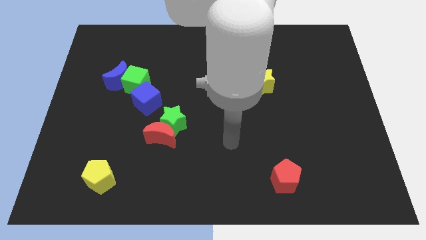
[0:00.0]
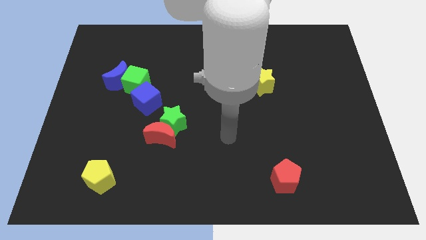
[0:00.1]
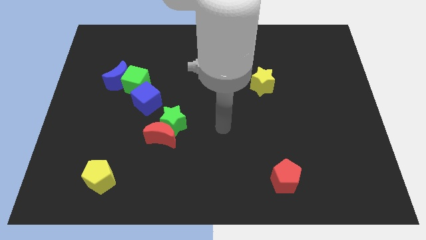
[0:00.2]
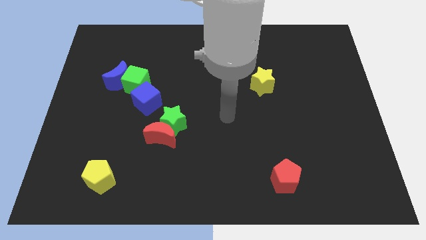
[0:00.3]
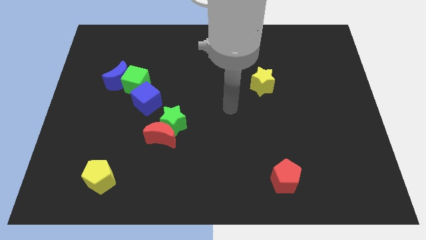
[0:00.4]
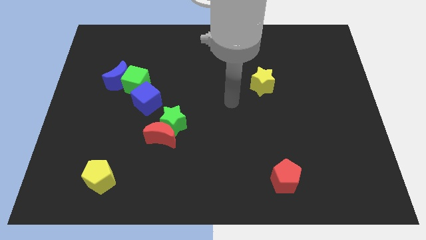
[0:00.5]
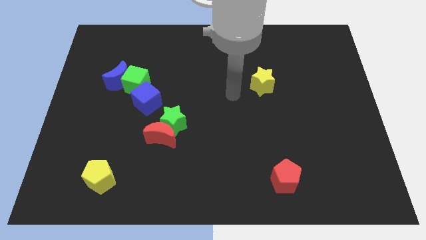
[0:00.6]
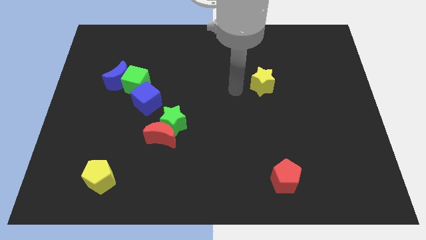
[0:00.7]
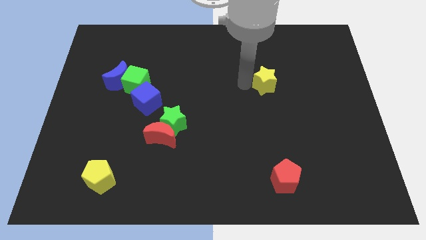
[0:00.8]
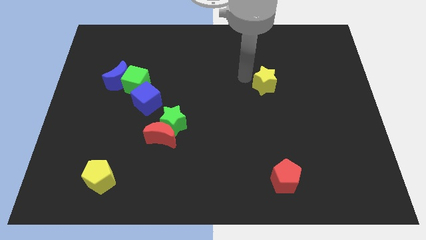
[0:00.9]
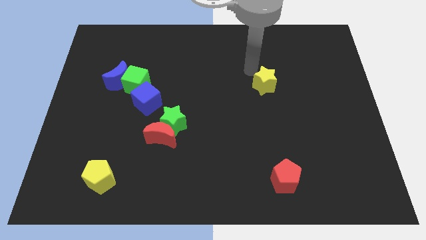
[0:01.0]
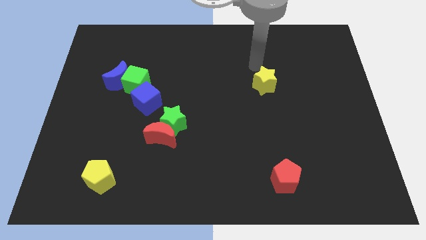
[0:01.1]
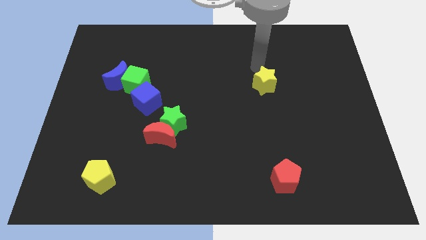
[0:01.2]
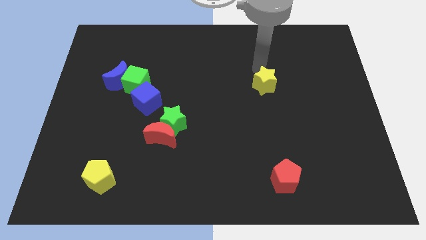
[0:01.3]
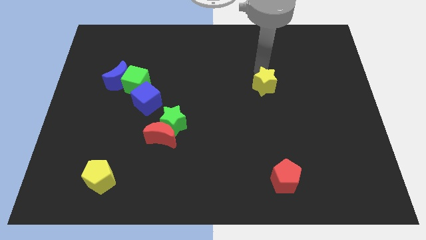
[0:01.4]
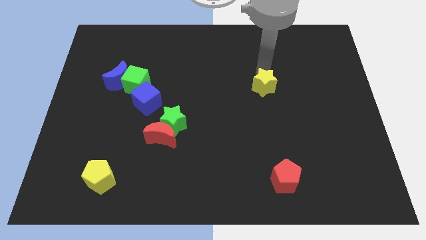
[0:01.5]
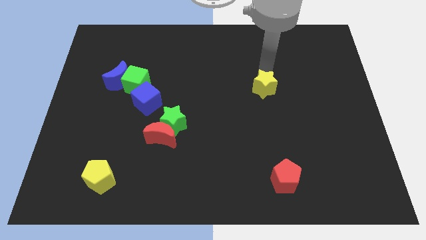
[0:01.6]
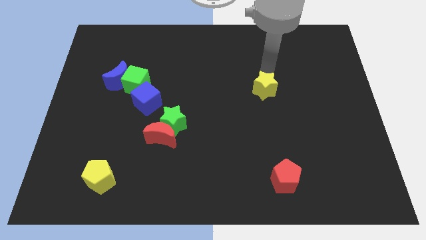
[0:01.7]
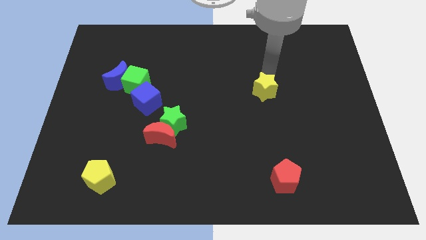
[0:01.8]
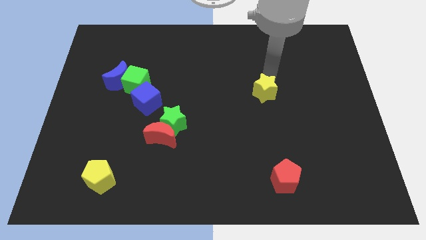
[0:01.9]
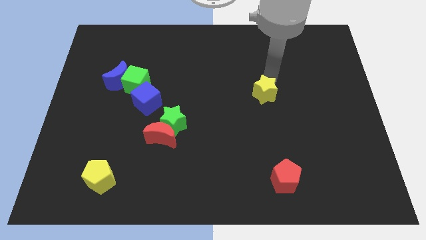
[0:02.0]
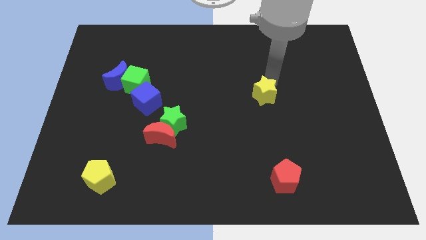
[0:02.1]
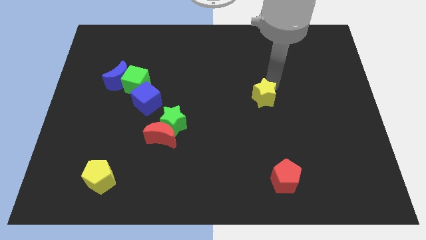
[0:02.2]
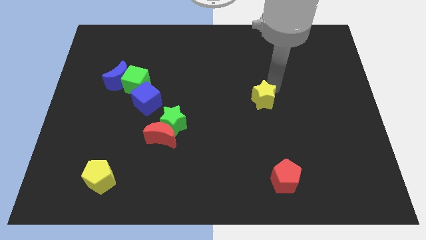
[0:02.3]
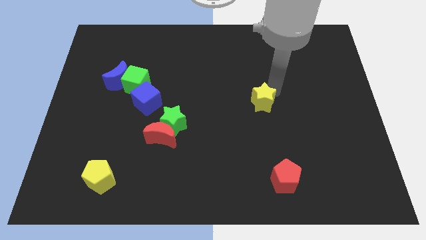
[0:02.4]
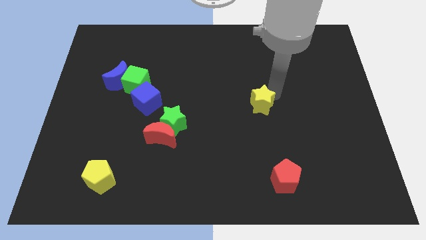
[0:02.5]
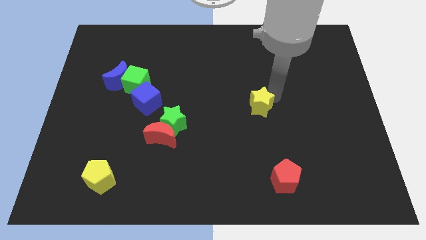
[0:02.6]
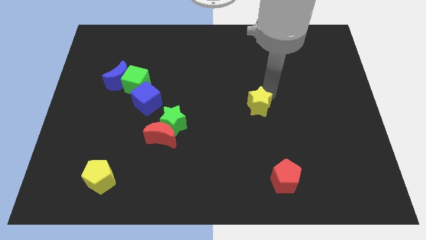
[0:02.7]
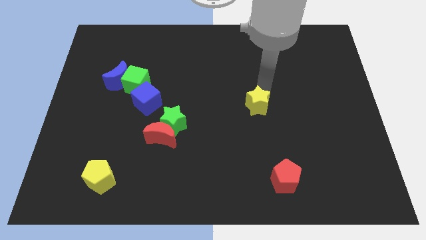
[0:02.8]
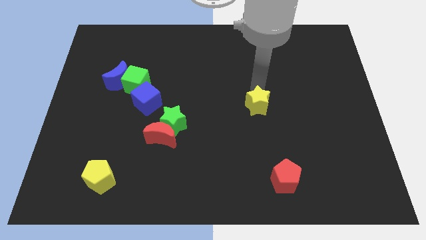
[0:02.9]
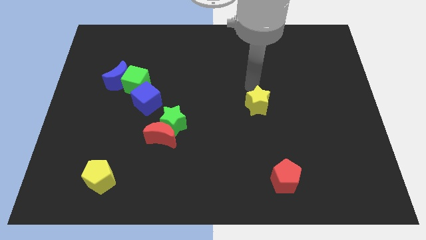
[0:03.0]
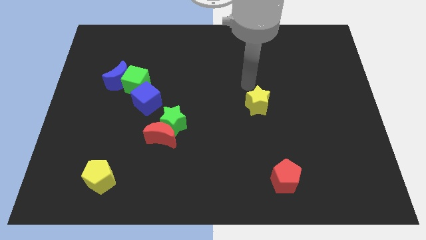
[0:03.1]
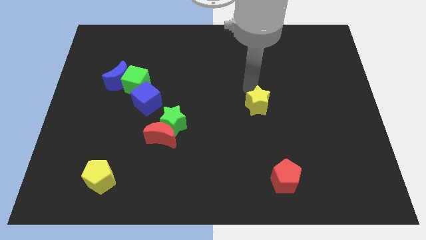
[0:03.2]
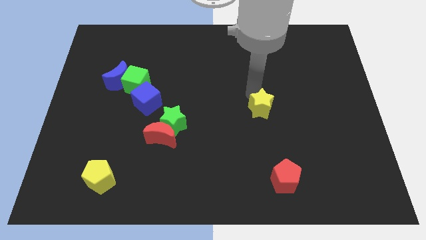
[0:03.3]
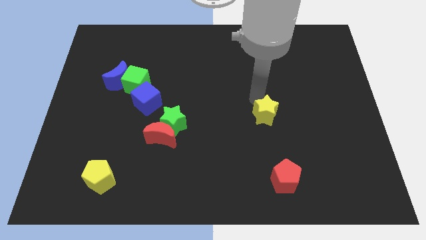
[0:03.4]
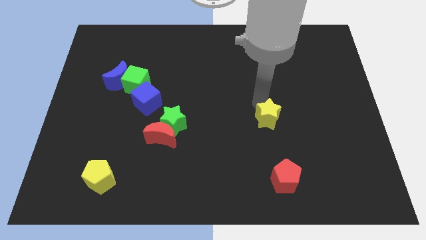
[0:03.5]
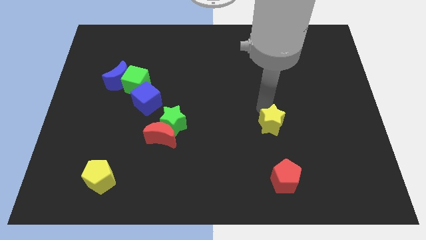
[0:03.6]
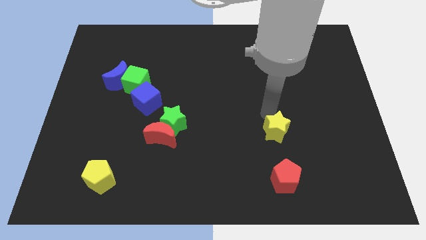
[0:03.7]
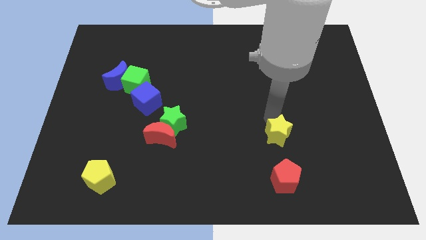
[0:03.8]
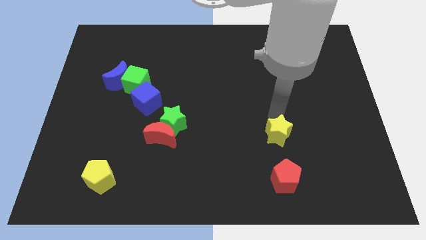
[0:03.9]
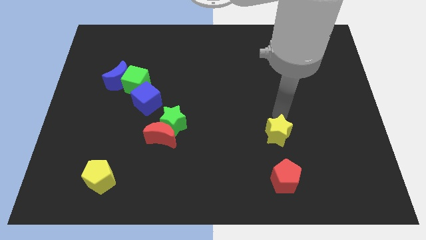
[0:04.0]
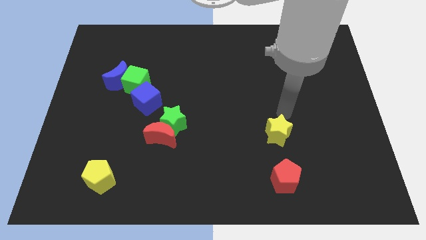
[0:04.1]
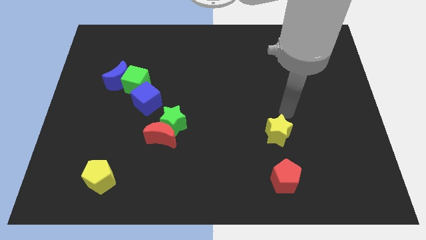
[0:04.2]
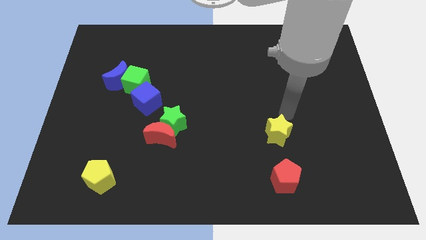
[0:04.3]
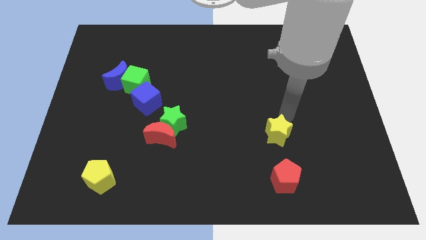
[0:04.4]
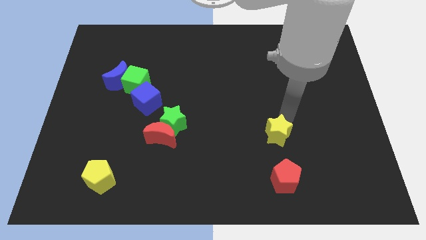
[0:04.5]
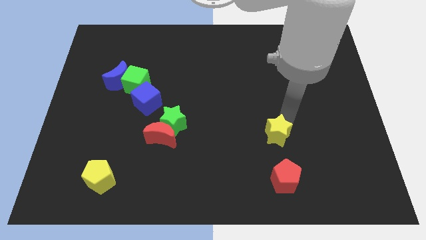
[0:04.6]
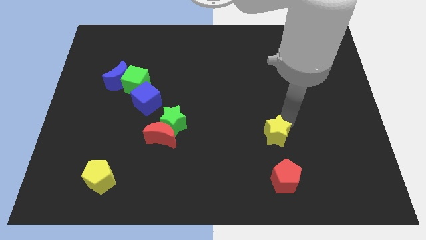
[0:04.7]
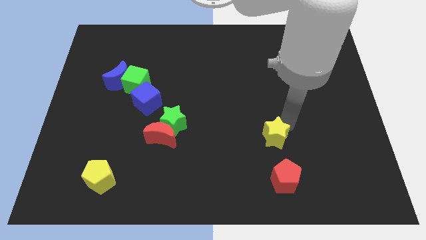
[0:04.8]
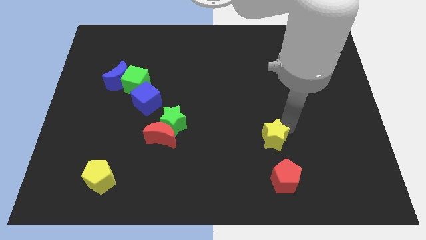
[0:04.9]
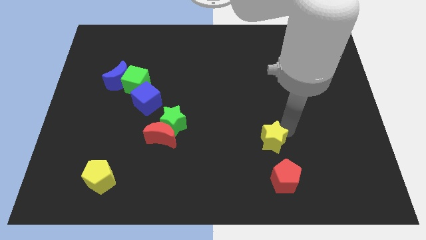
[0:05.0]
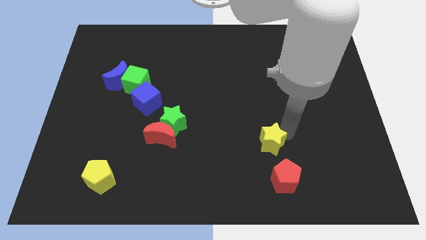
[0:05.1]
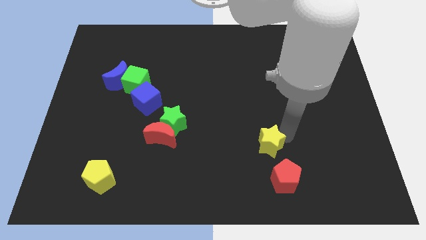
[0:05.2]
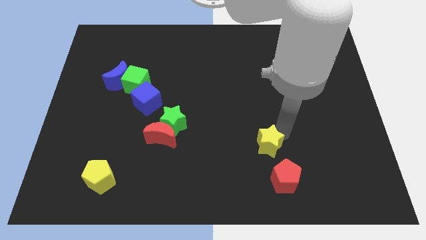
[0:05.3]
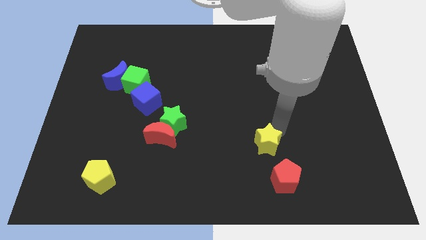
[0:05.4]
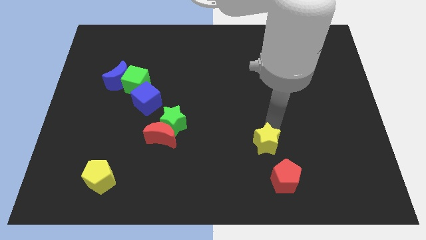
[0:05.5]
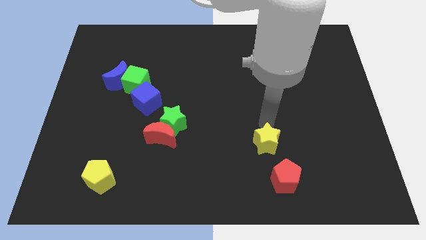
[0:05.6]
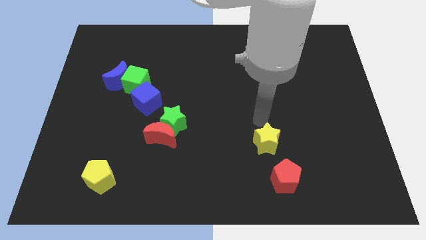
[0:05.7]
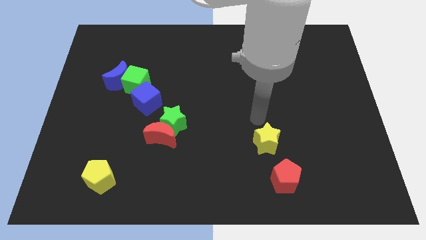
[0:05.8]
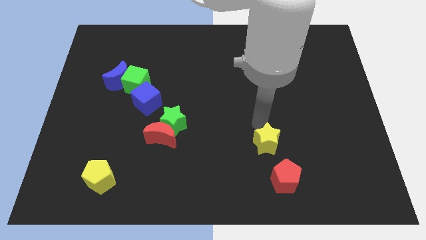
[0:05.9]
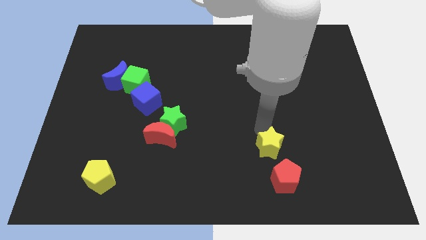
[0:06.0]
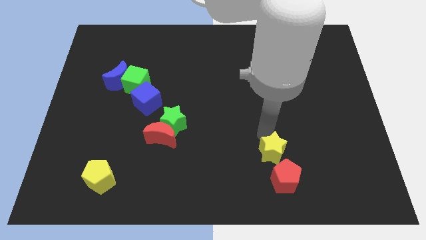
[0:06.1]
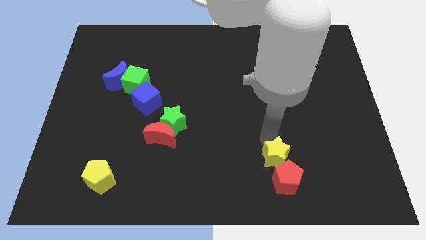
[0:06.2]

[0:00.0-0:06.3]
move the yellow star to the red pentagon

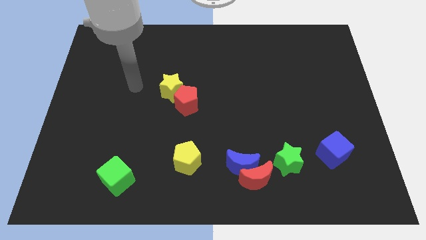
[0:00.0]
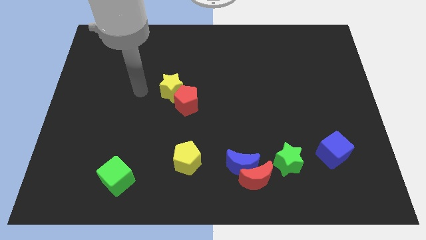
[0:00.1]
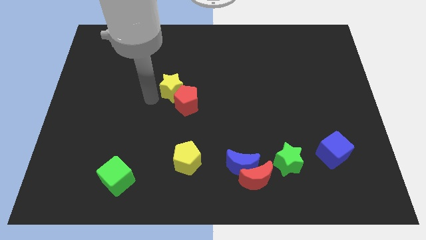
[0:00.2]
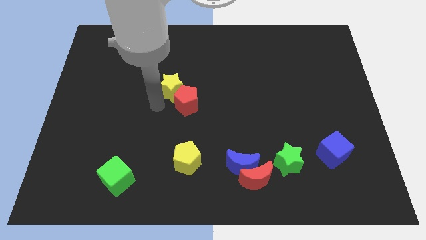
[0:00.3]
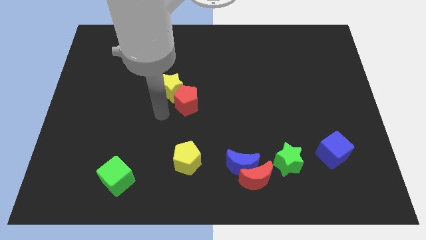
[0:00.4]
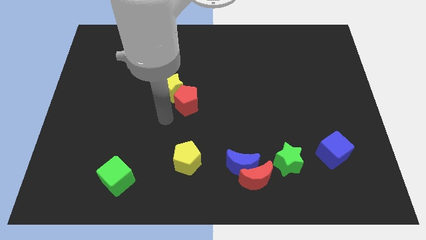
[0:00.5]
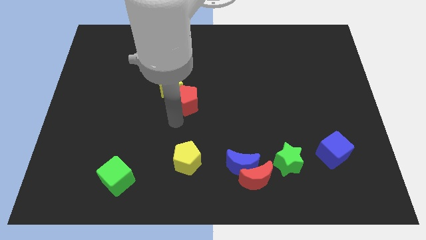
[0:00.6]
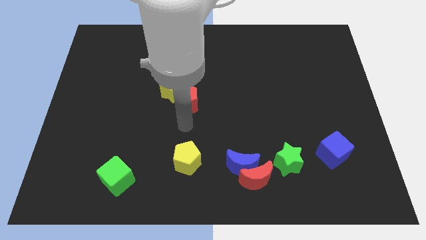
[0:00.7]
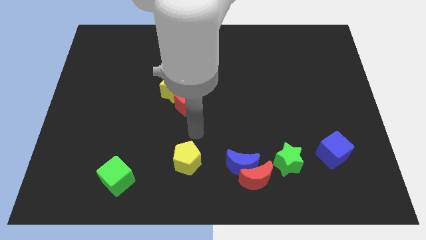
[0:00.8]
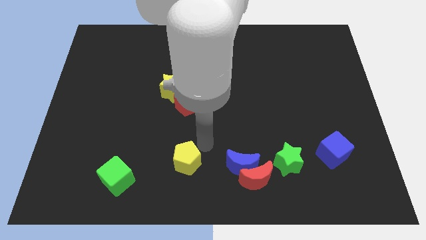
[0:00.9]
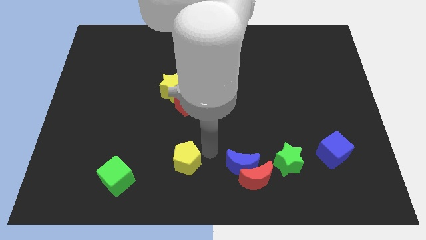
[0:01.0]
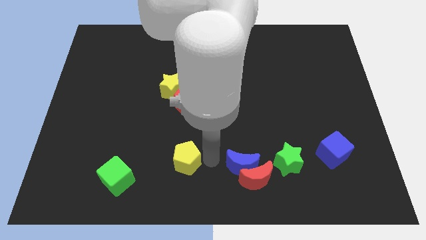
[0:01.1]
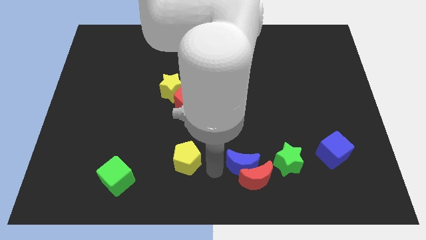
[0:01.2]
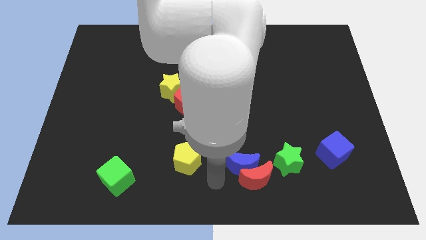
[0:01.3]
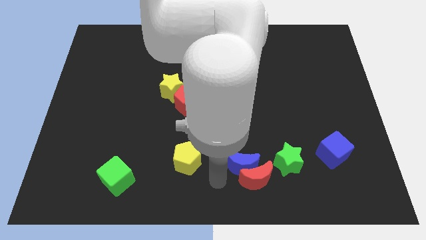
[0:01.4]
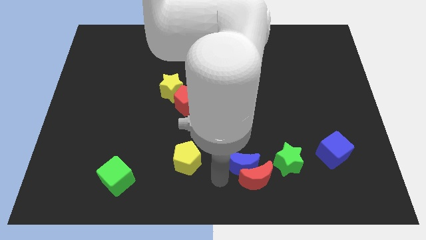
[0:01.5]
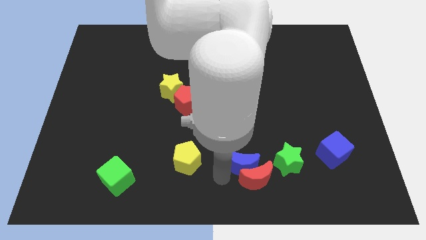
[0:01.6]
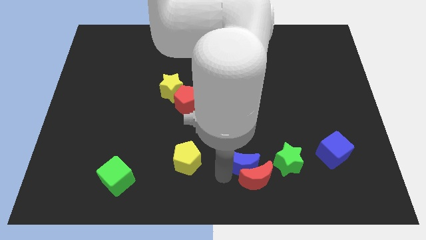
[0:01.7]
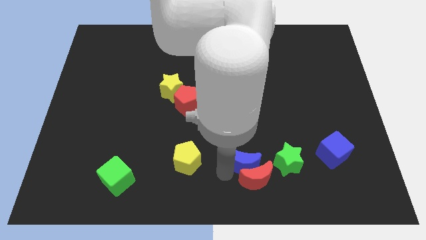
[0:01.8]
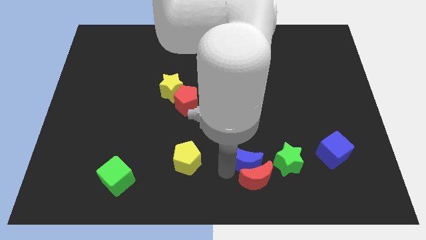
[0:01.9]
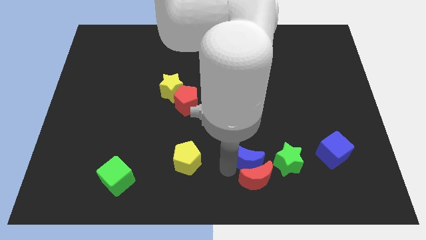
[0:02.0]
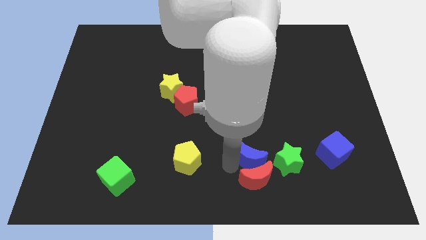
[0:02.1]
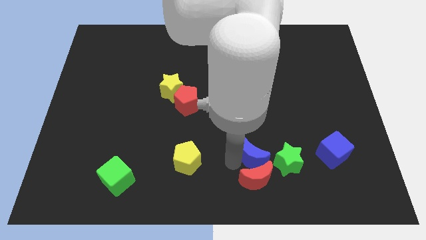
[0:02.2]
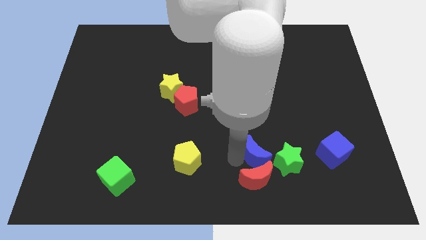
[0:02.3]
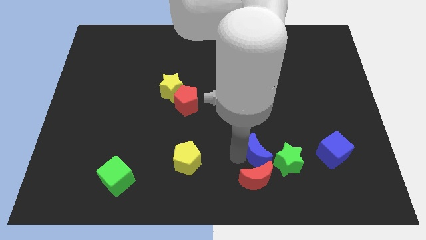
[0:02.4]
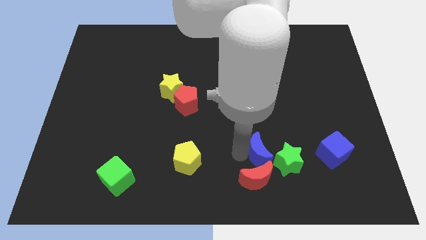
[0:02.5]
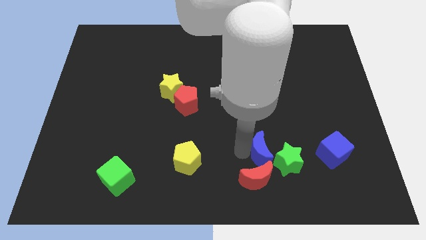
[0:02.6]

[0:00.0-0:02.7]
put the blue moon to the green star
